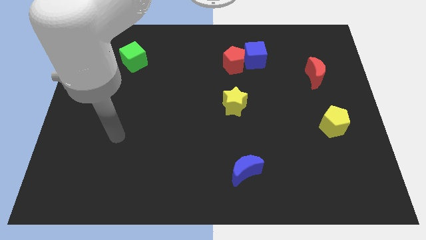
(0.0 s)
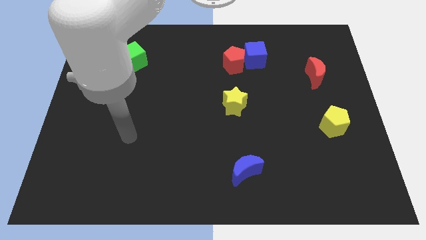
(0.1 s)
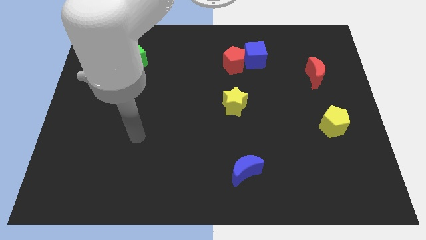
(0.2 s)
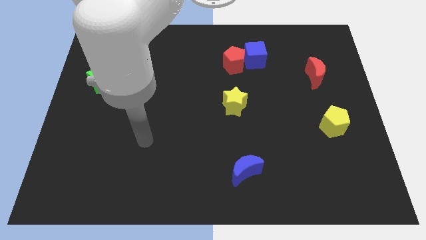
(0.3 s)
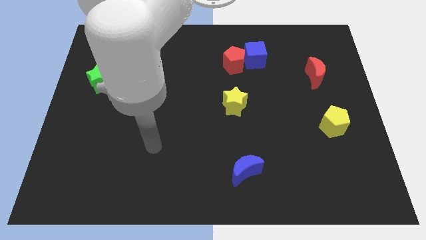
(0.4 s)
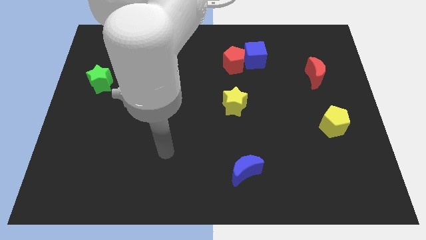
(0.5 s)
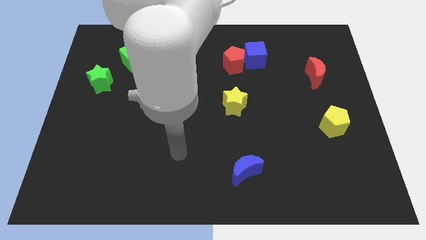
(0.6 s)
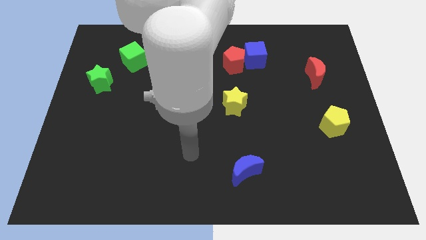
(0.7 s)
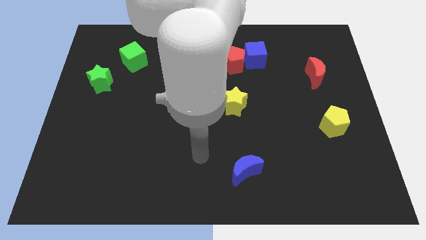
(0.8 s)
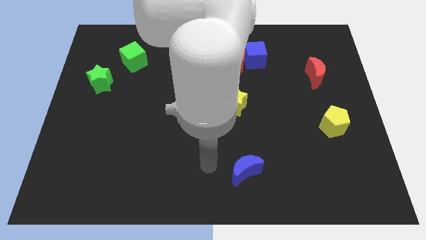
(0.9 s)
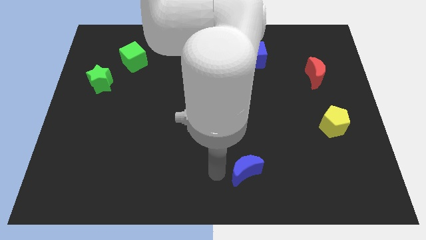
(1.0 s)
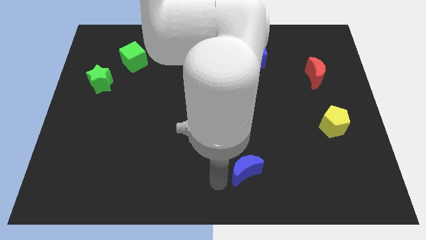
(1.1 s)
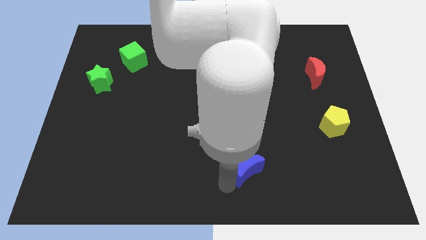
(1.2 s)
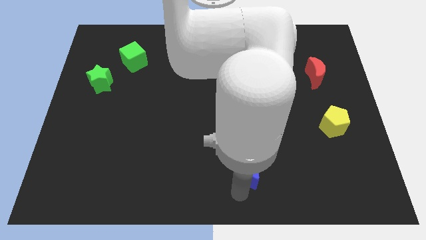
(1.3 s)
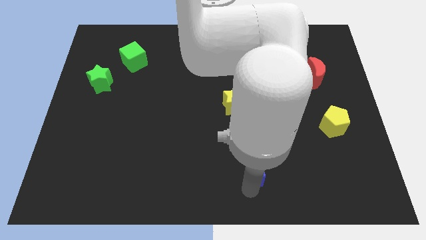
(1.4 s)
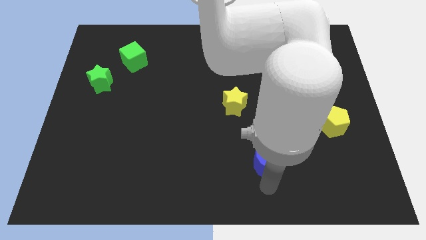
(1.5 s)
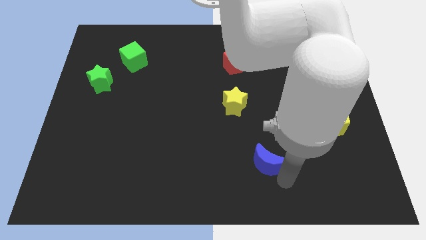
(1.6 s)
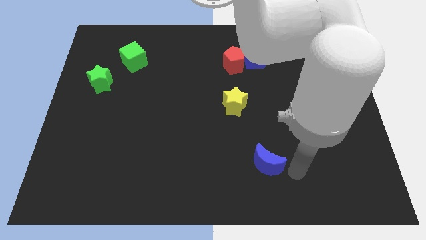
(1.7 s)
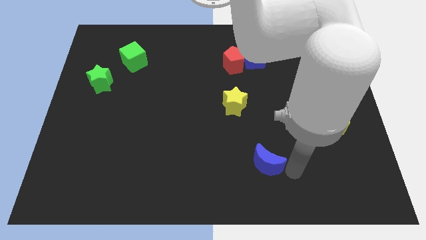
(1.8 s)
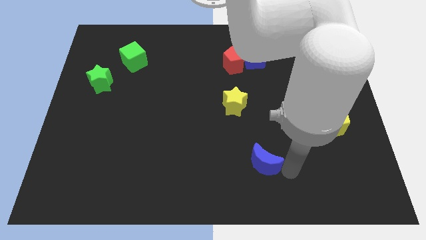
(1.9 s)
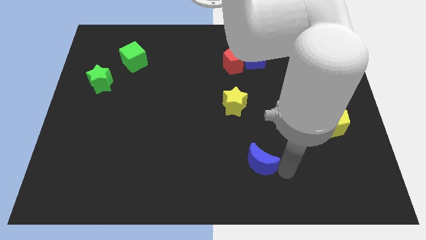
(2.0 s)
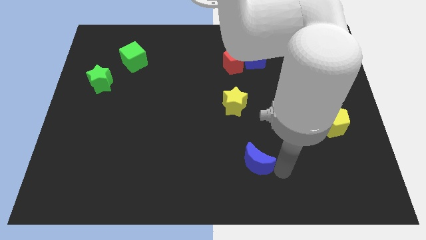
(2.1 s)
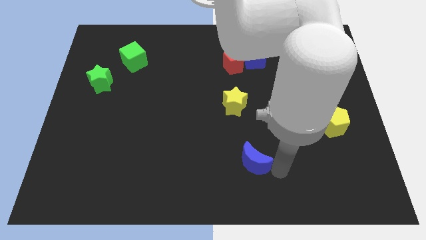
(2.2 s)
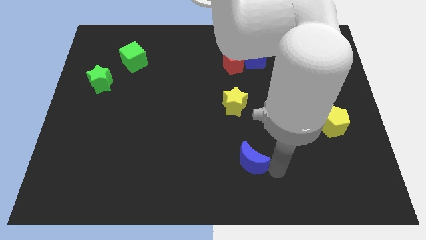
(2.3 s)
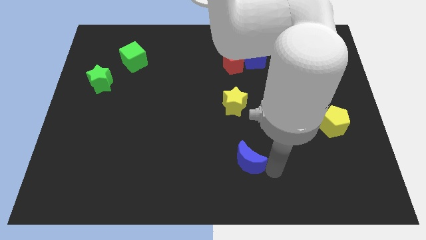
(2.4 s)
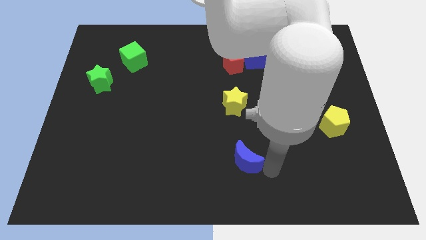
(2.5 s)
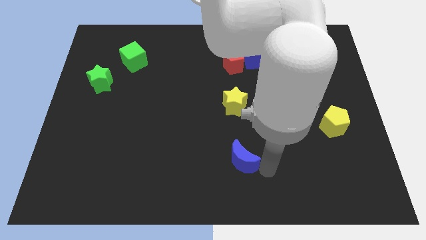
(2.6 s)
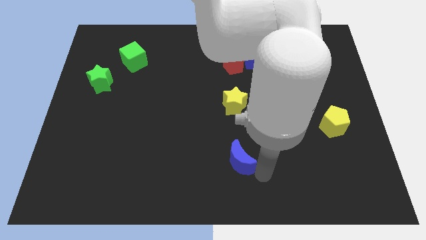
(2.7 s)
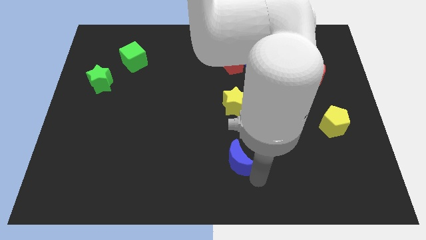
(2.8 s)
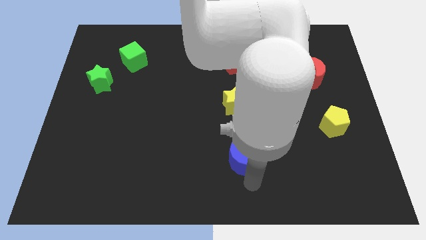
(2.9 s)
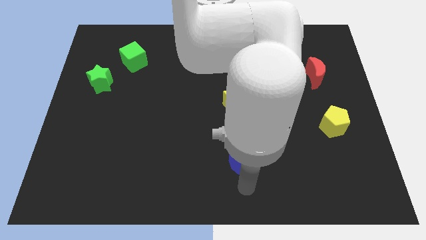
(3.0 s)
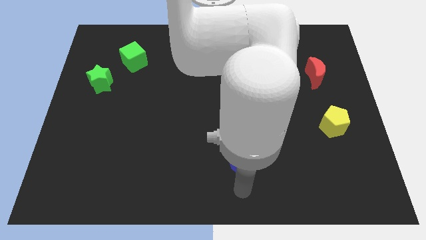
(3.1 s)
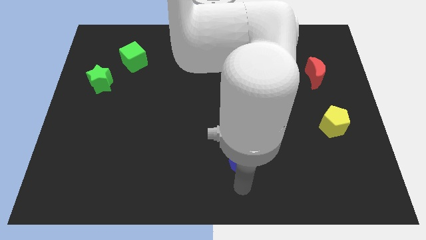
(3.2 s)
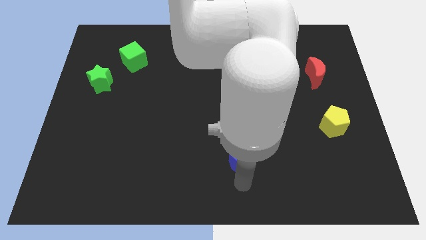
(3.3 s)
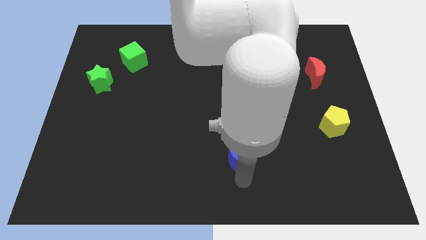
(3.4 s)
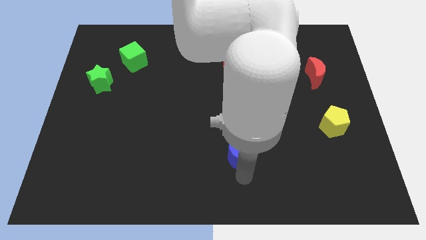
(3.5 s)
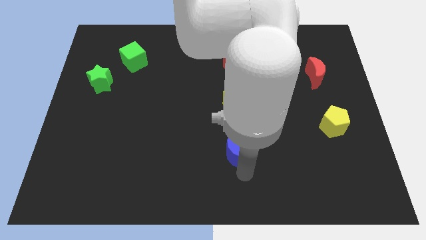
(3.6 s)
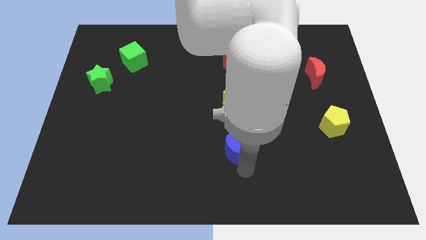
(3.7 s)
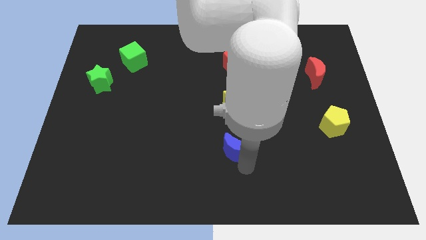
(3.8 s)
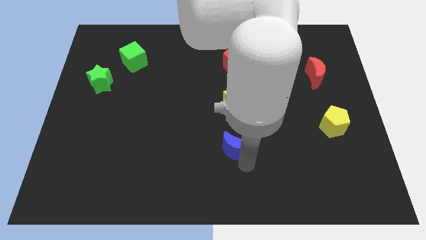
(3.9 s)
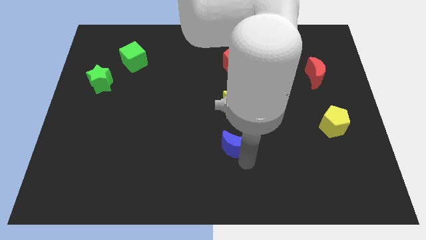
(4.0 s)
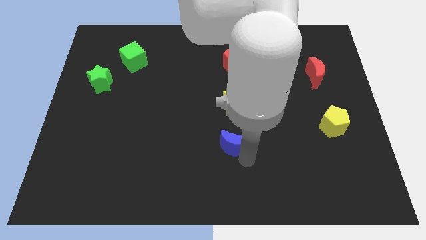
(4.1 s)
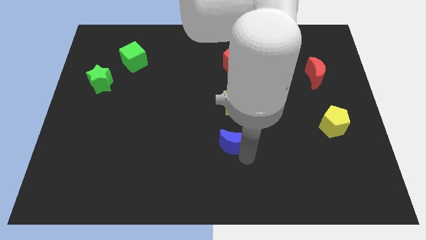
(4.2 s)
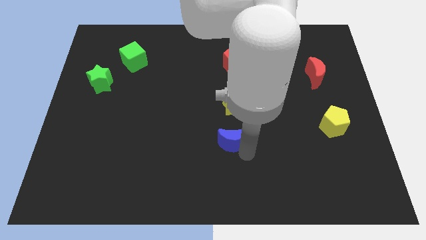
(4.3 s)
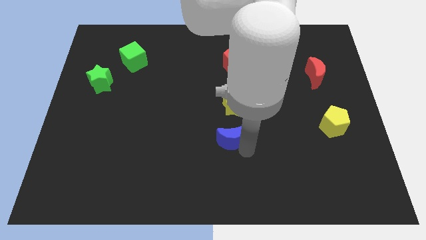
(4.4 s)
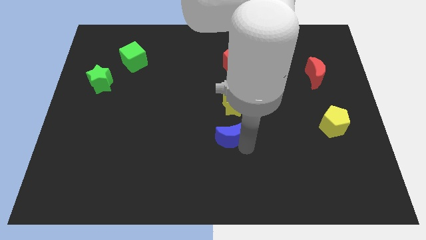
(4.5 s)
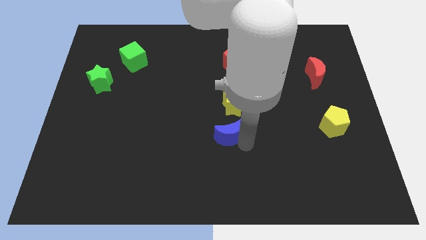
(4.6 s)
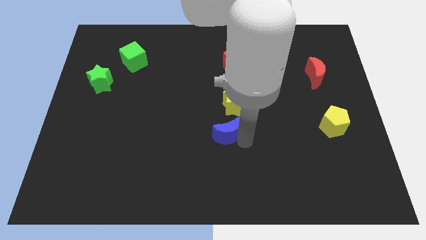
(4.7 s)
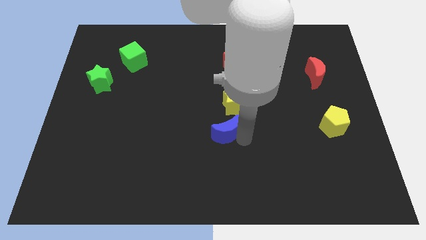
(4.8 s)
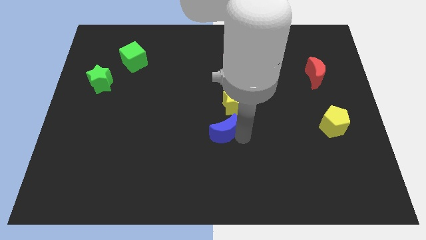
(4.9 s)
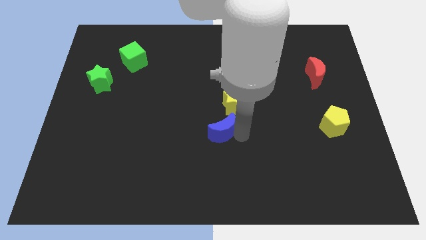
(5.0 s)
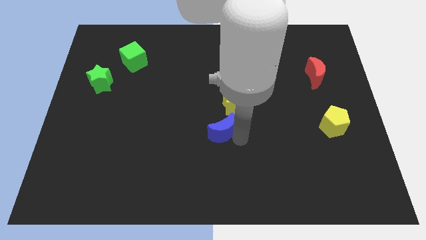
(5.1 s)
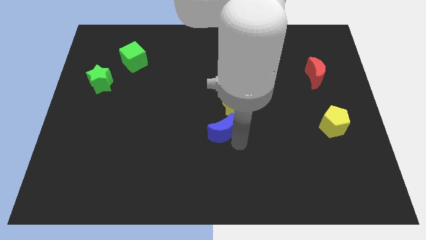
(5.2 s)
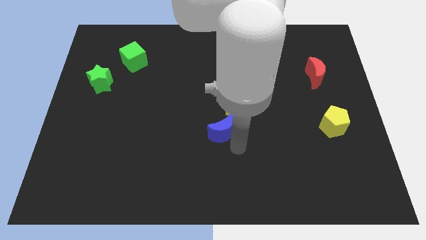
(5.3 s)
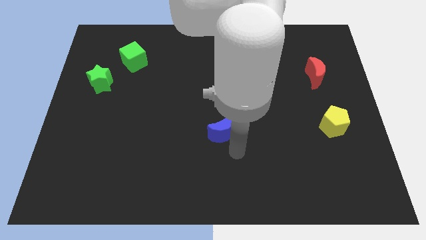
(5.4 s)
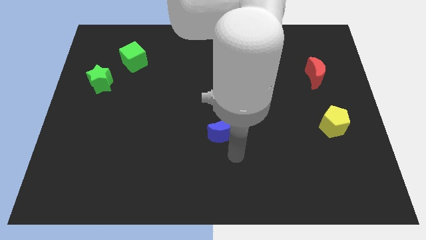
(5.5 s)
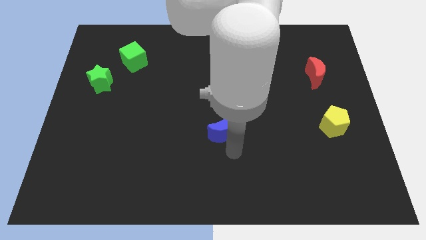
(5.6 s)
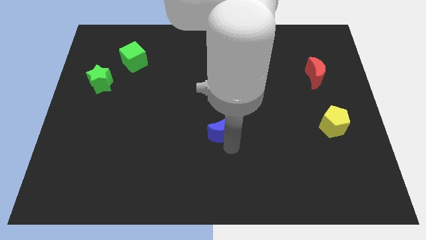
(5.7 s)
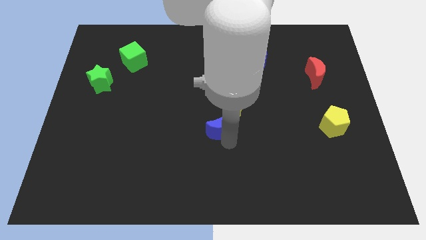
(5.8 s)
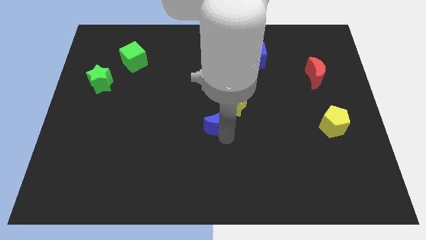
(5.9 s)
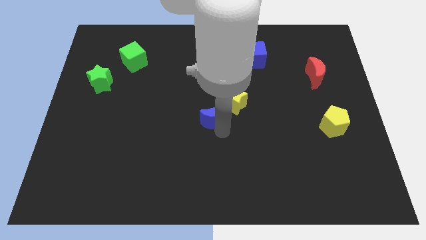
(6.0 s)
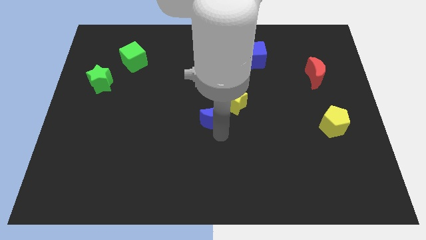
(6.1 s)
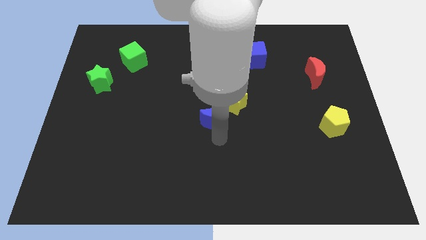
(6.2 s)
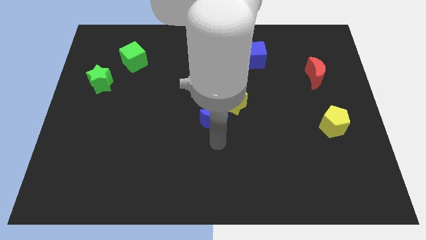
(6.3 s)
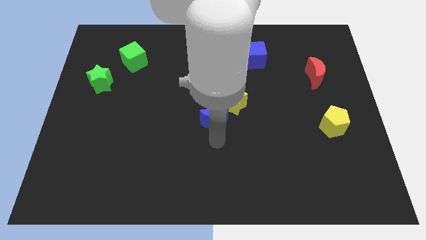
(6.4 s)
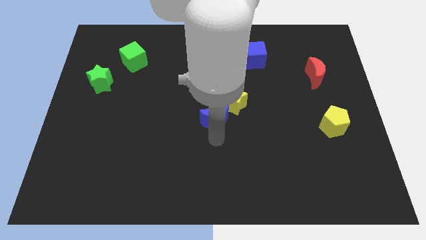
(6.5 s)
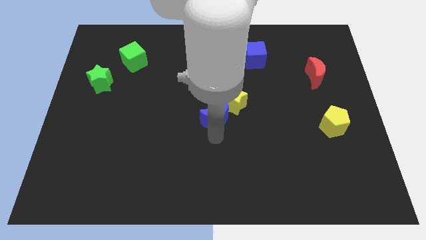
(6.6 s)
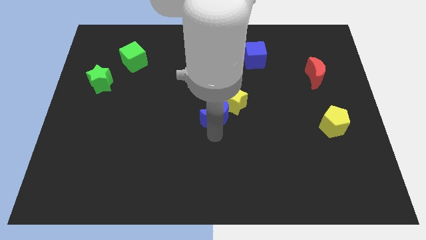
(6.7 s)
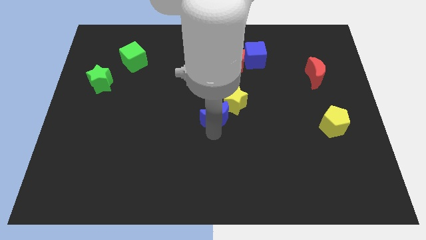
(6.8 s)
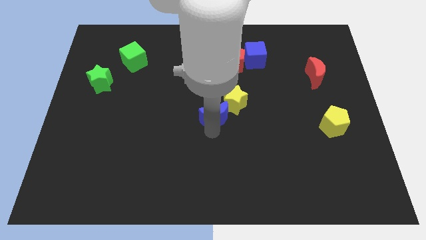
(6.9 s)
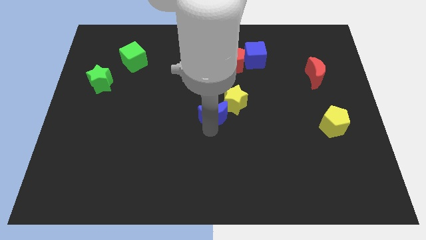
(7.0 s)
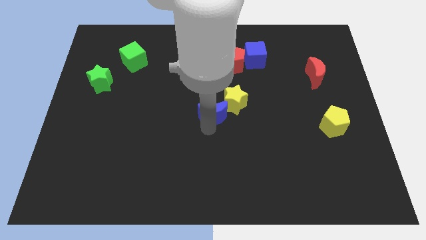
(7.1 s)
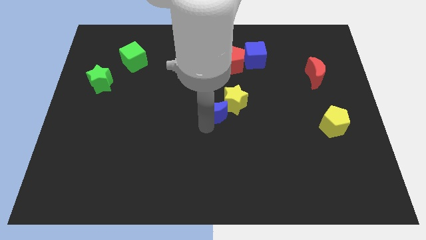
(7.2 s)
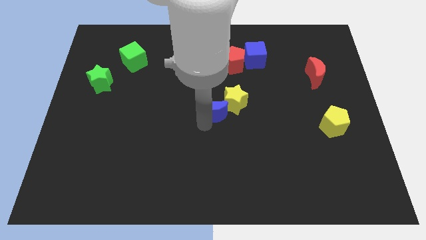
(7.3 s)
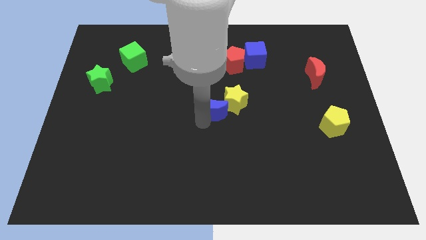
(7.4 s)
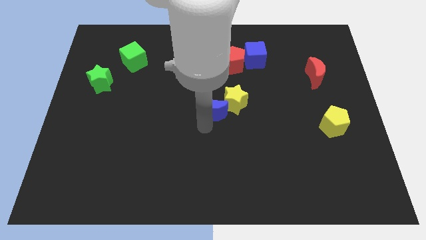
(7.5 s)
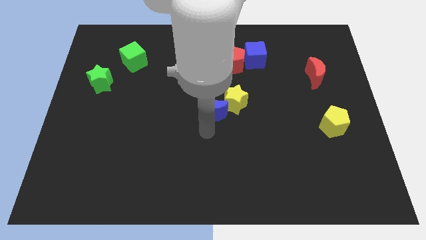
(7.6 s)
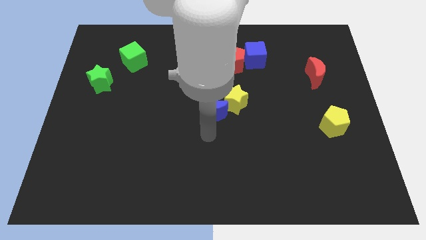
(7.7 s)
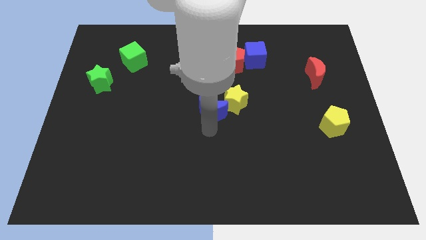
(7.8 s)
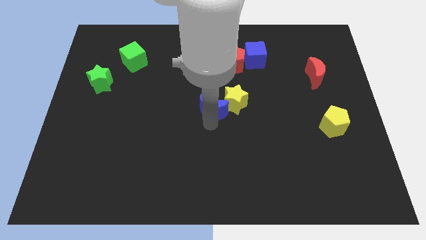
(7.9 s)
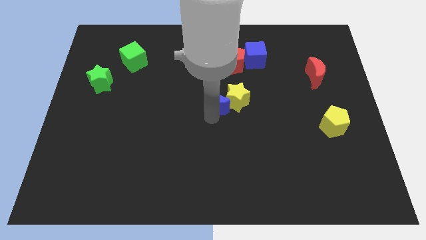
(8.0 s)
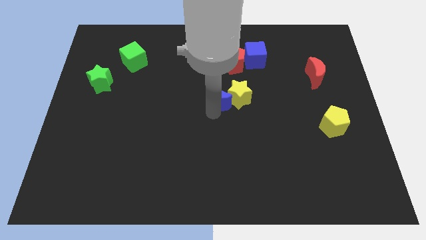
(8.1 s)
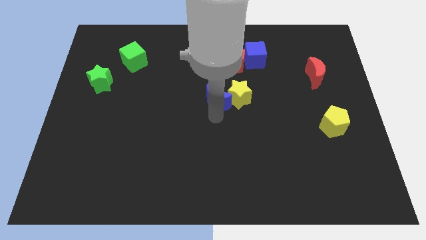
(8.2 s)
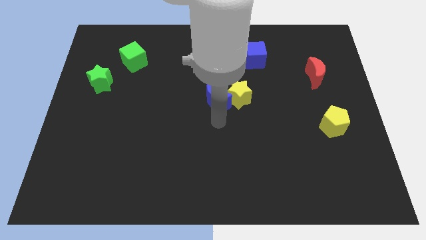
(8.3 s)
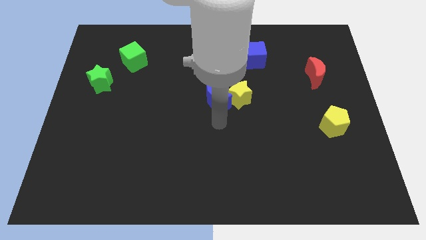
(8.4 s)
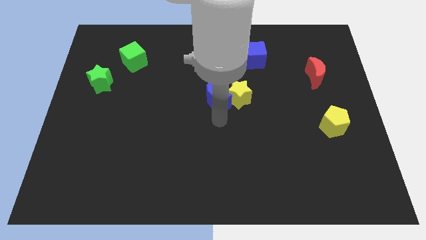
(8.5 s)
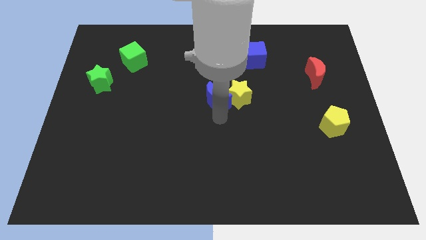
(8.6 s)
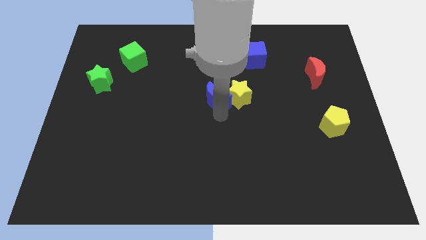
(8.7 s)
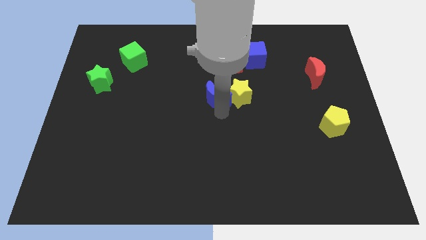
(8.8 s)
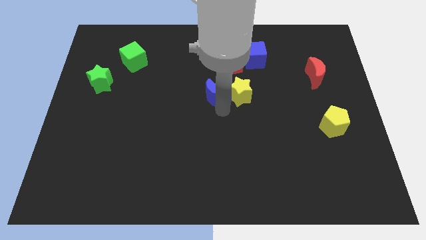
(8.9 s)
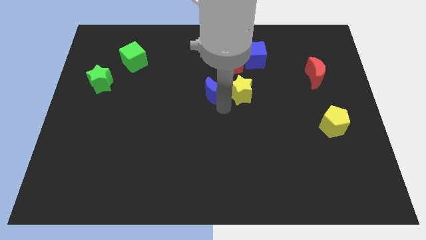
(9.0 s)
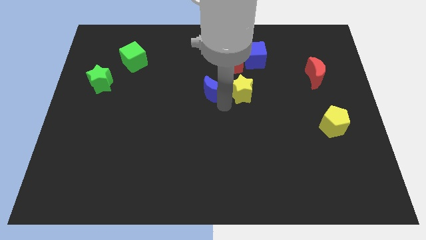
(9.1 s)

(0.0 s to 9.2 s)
slide the blue moon diagonally down and to the left of the red pentagon
